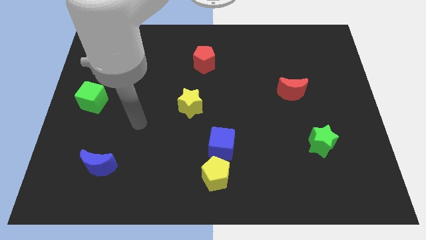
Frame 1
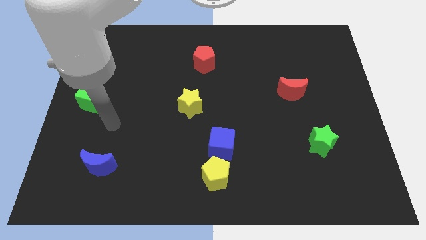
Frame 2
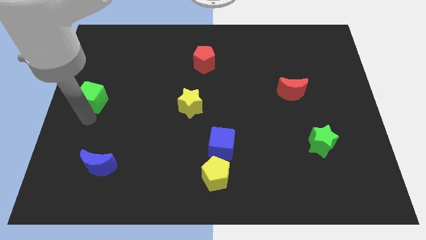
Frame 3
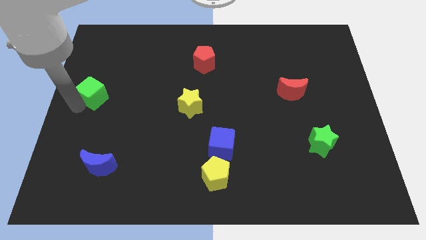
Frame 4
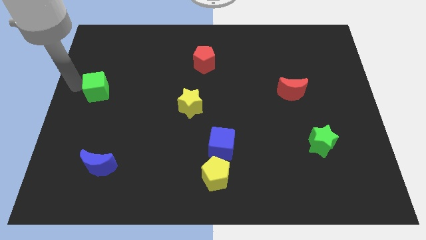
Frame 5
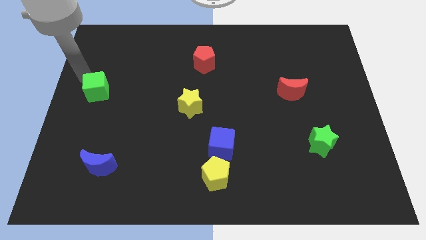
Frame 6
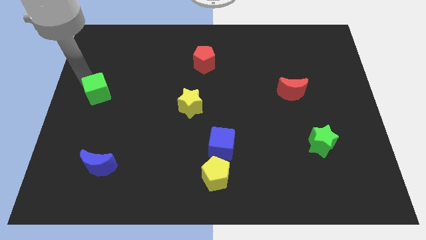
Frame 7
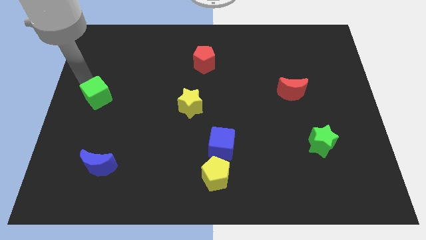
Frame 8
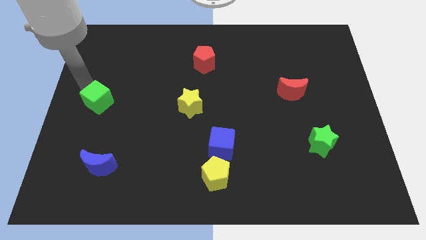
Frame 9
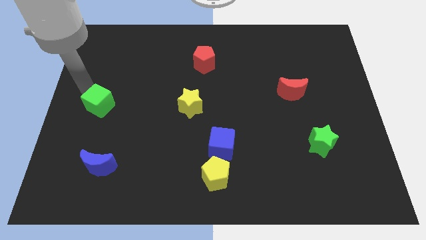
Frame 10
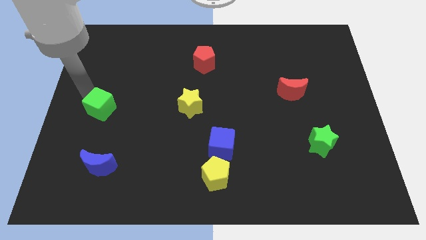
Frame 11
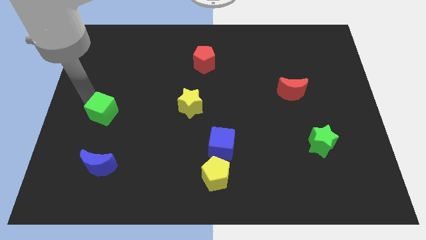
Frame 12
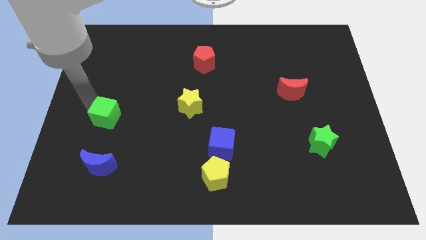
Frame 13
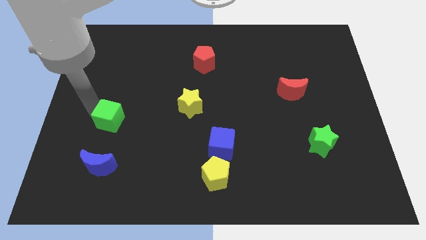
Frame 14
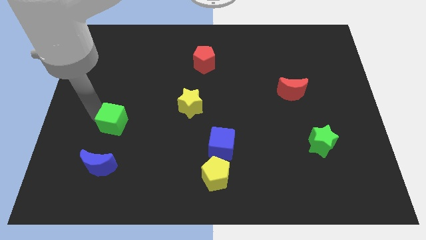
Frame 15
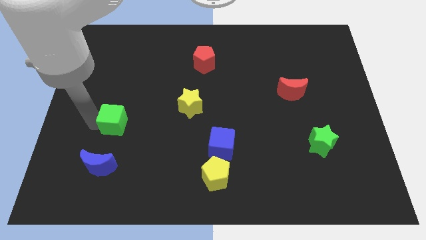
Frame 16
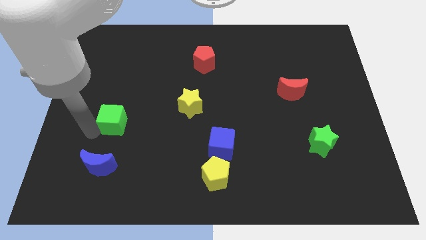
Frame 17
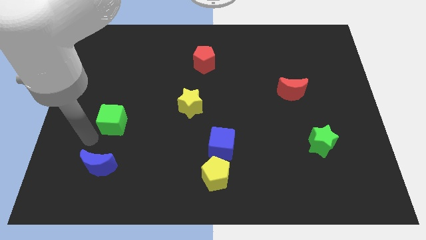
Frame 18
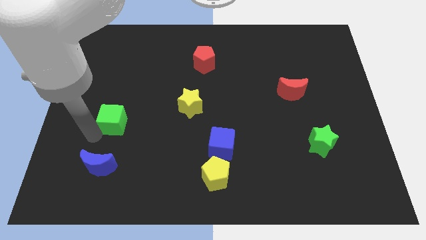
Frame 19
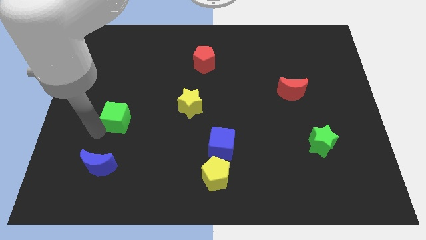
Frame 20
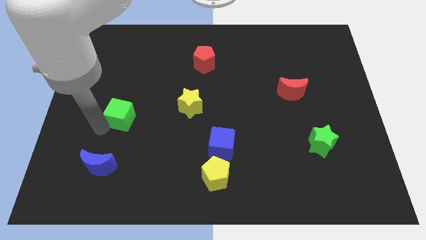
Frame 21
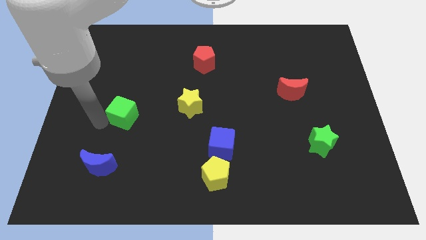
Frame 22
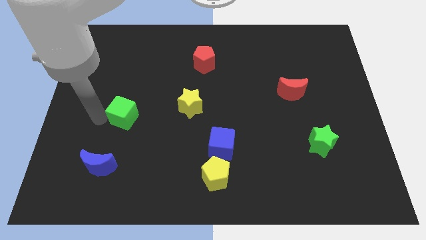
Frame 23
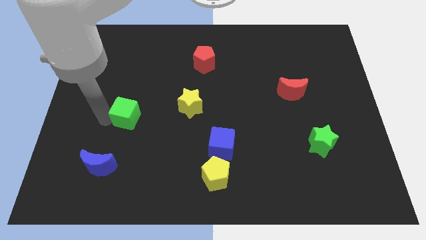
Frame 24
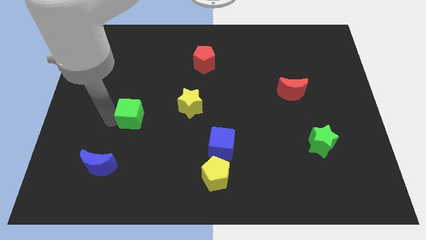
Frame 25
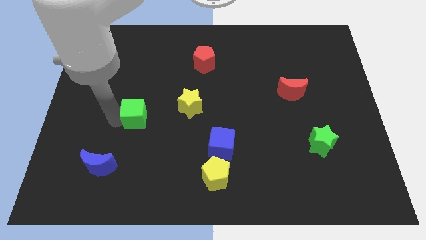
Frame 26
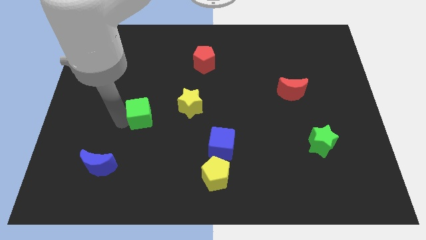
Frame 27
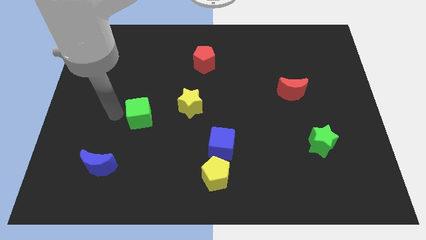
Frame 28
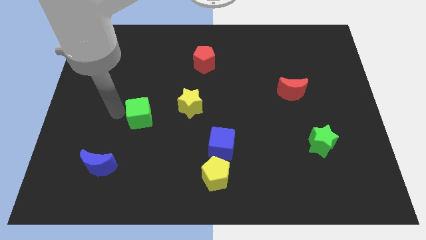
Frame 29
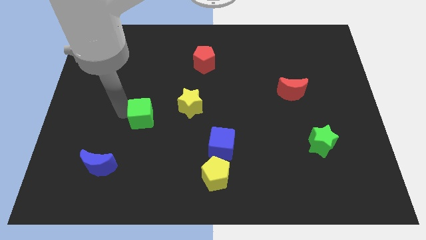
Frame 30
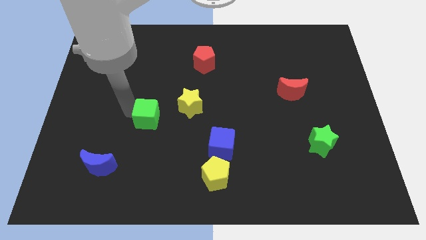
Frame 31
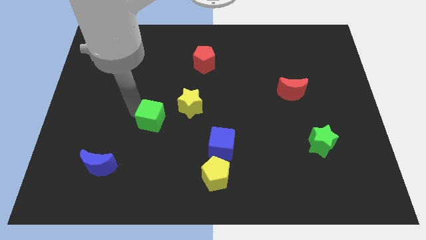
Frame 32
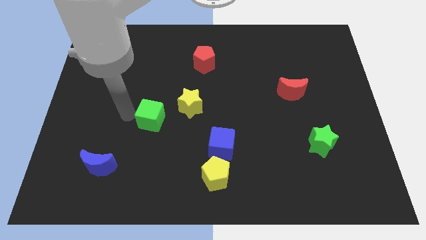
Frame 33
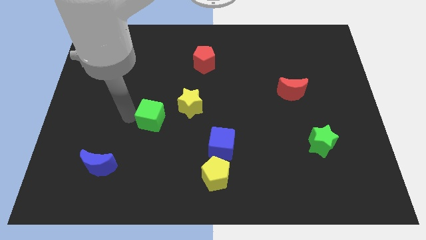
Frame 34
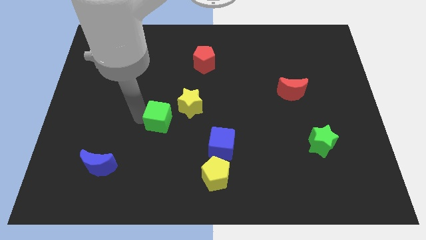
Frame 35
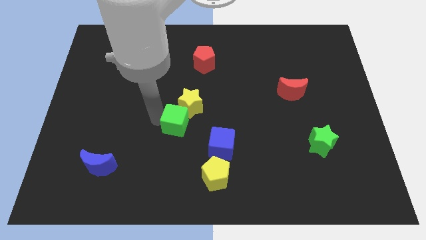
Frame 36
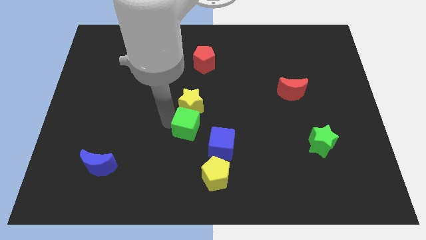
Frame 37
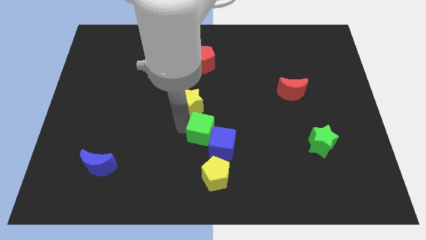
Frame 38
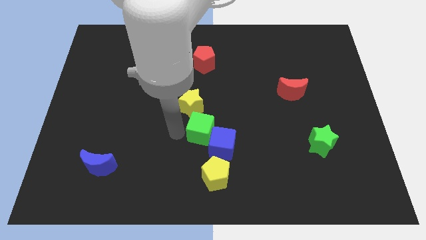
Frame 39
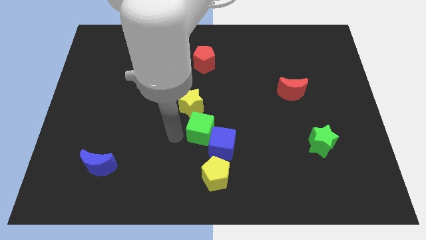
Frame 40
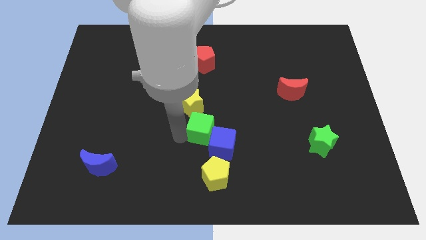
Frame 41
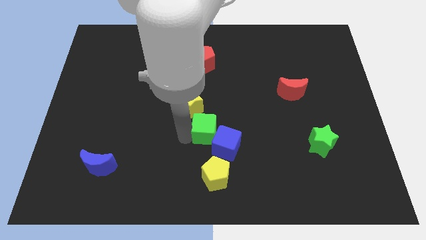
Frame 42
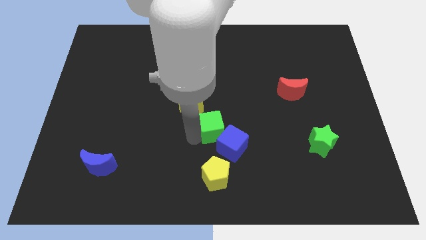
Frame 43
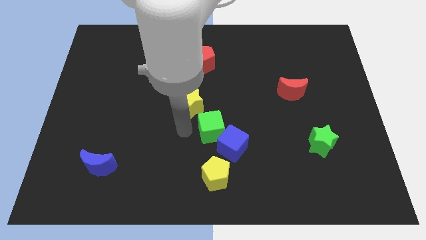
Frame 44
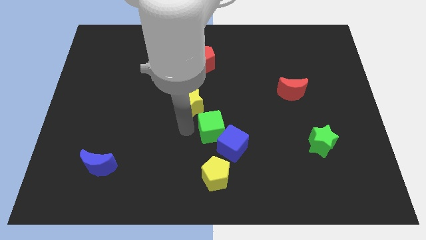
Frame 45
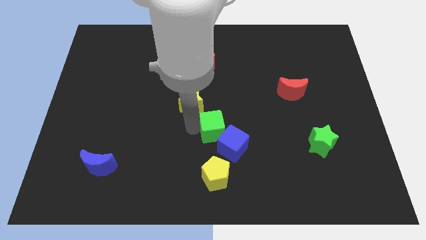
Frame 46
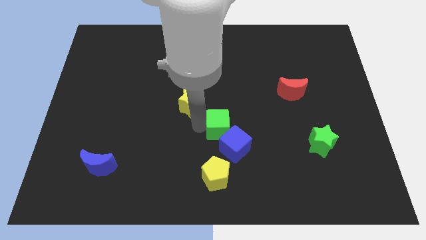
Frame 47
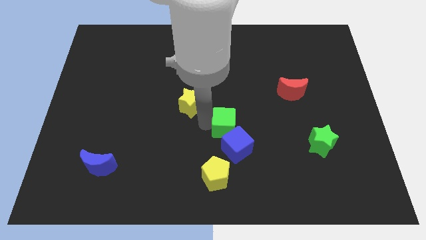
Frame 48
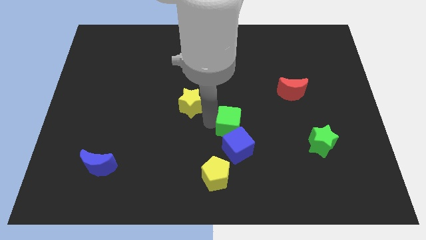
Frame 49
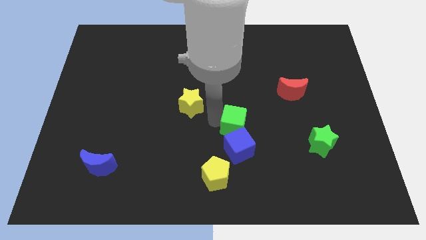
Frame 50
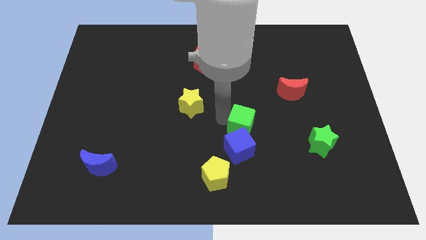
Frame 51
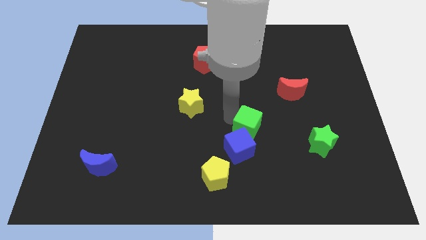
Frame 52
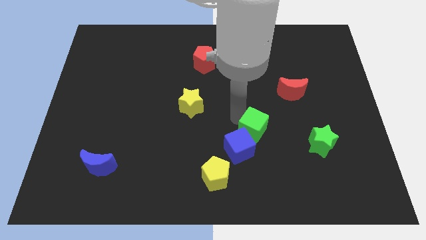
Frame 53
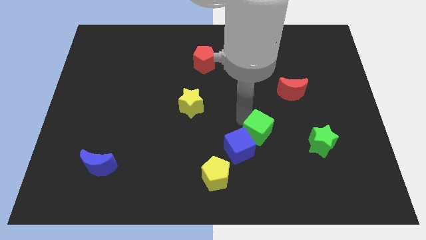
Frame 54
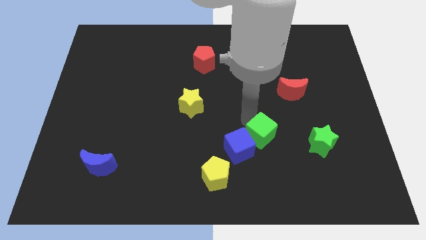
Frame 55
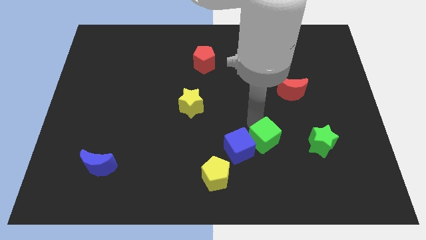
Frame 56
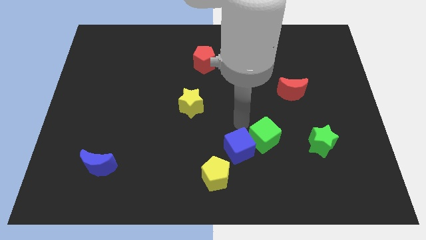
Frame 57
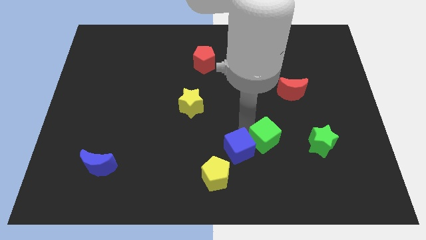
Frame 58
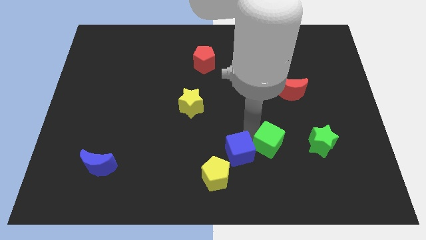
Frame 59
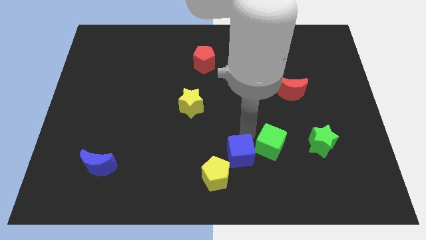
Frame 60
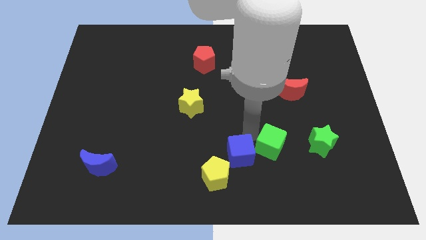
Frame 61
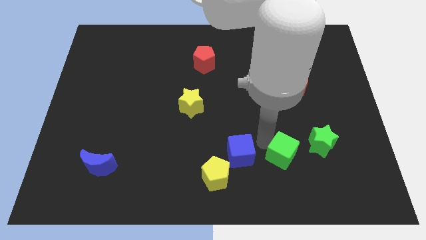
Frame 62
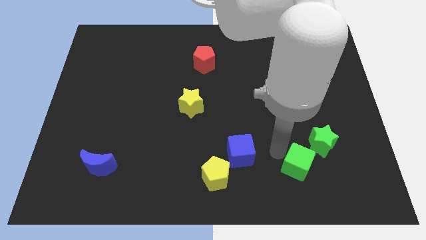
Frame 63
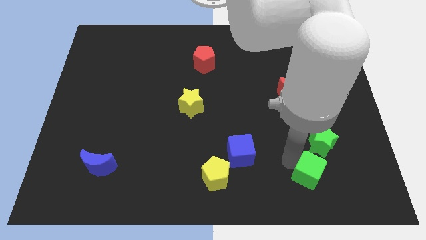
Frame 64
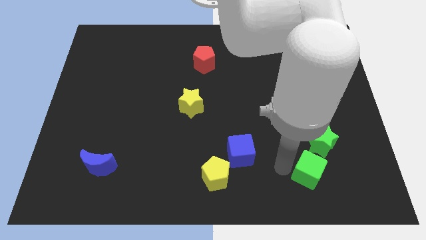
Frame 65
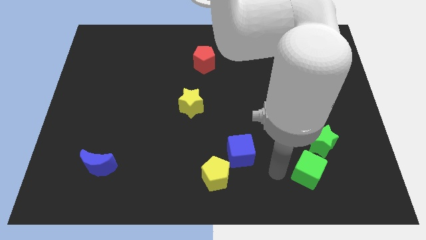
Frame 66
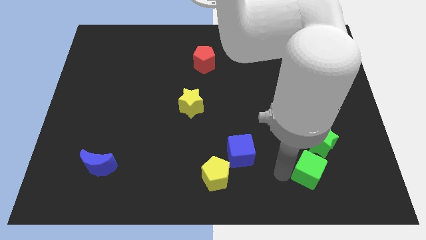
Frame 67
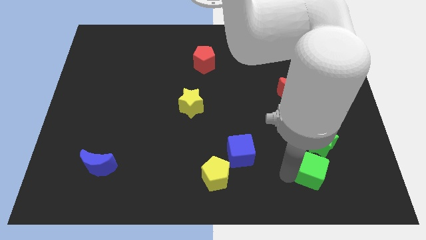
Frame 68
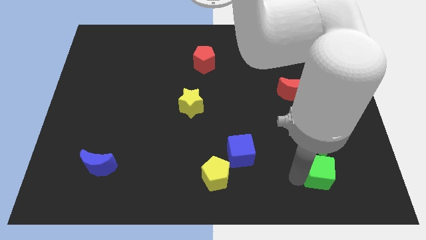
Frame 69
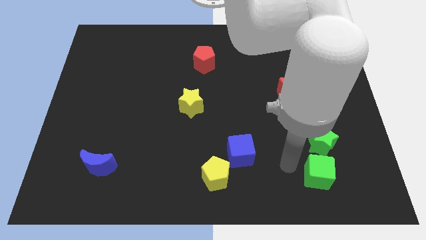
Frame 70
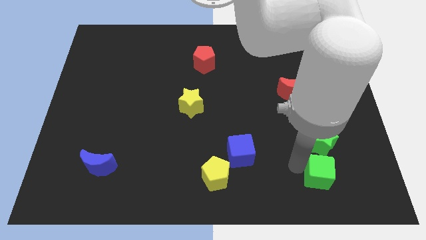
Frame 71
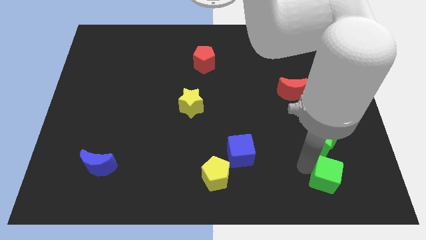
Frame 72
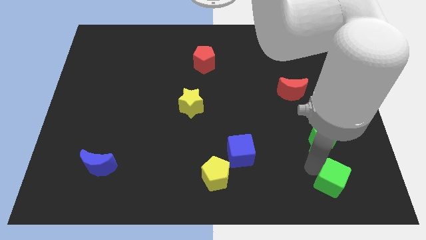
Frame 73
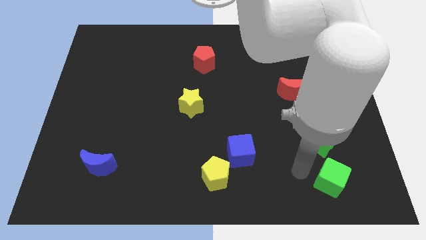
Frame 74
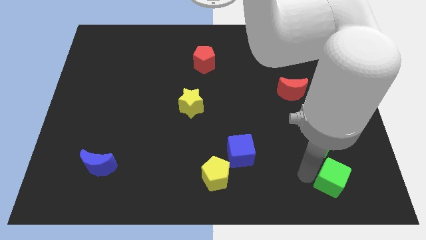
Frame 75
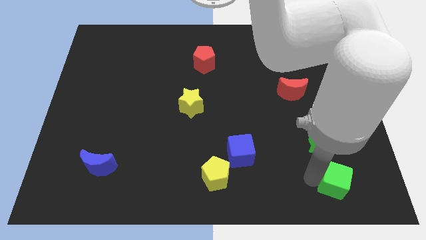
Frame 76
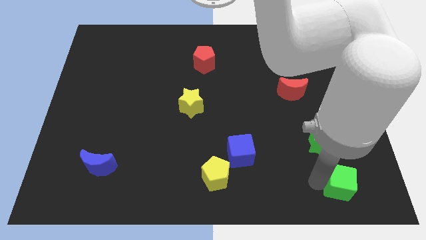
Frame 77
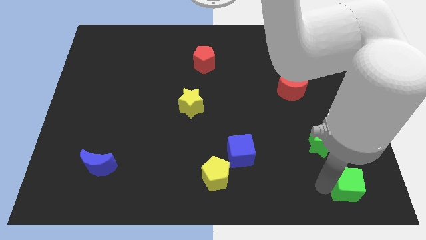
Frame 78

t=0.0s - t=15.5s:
slide the green cube to the bottom right of the board
